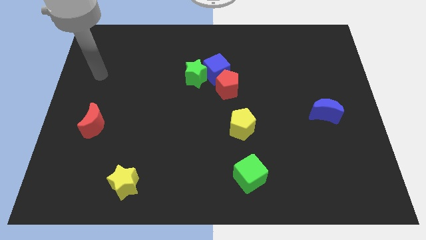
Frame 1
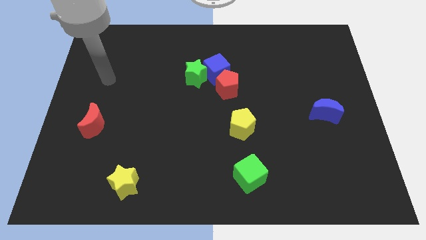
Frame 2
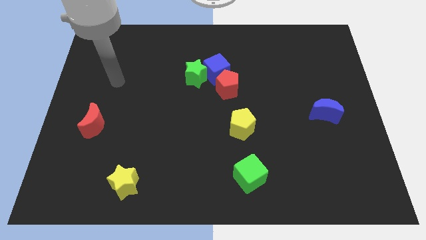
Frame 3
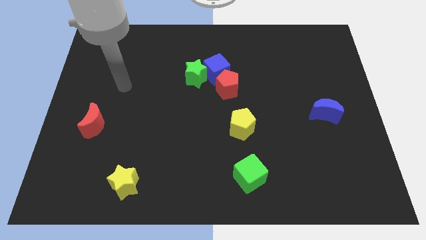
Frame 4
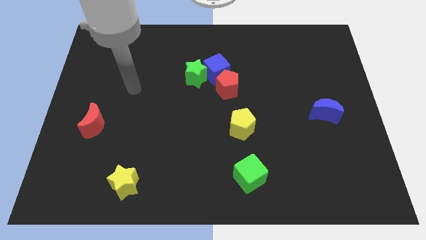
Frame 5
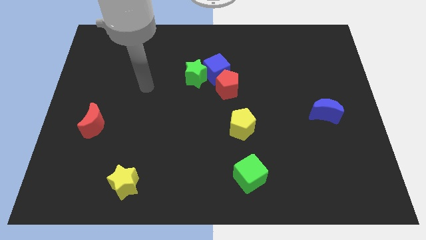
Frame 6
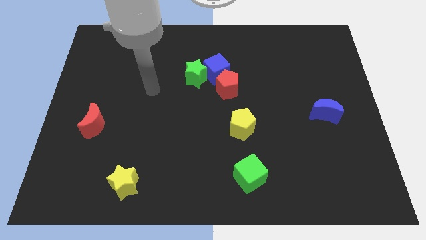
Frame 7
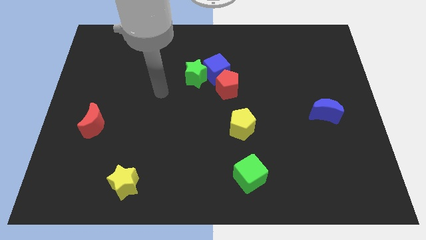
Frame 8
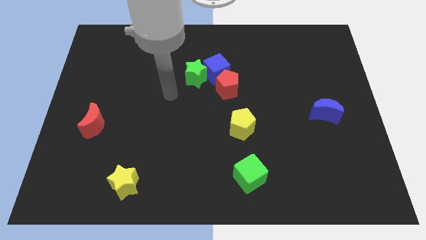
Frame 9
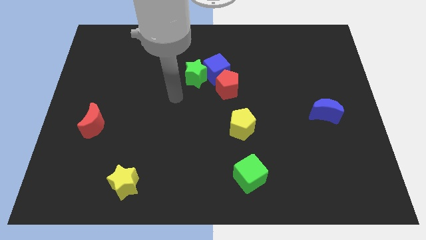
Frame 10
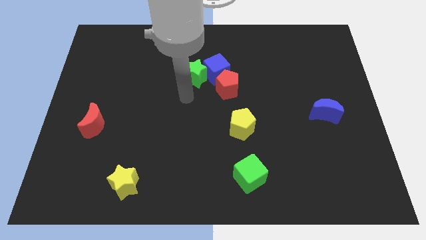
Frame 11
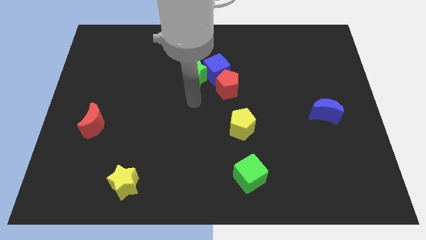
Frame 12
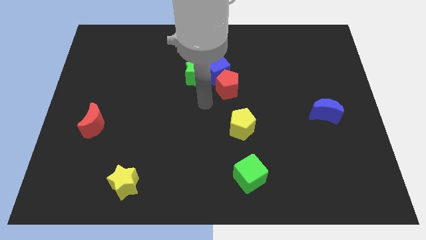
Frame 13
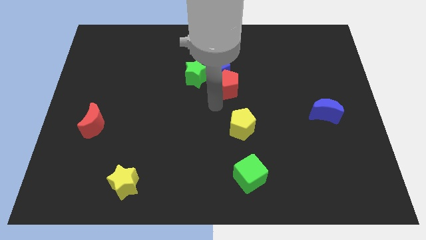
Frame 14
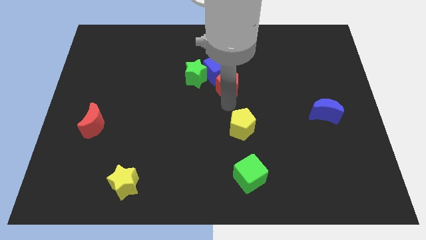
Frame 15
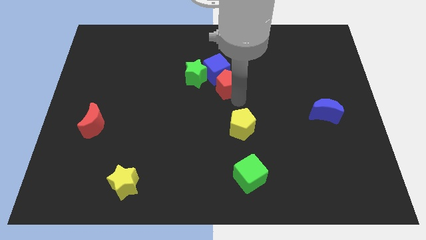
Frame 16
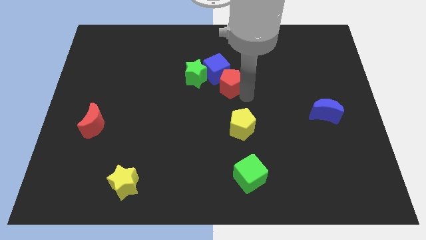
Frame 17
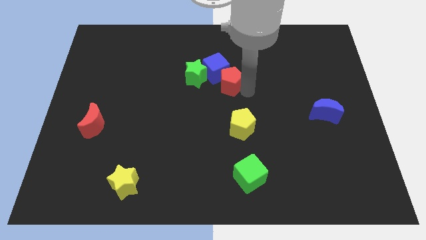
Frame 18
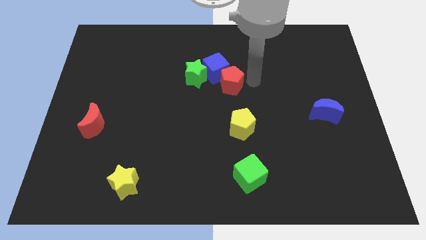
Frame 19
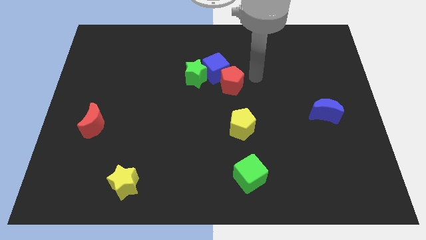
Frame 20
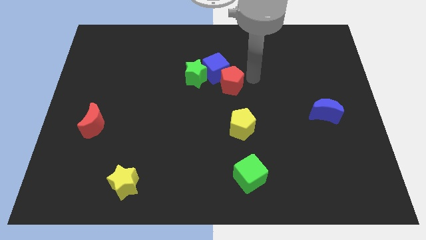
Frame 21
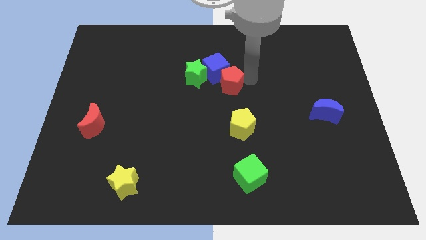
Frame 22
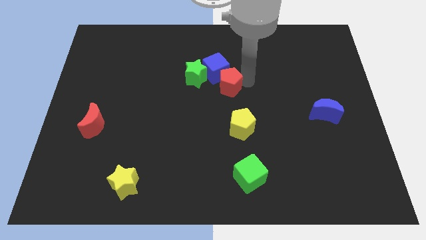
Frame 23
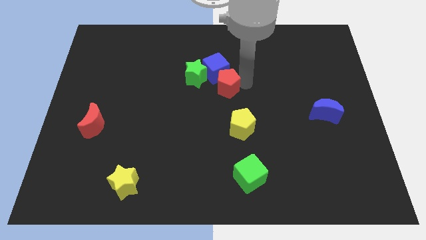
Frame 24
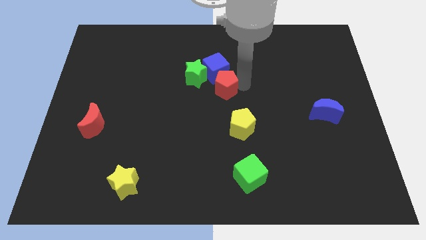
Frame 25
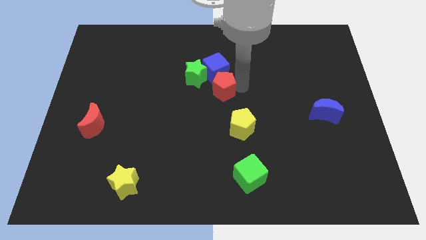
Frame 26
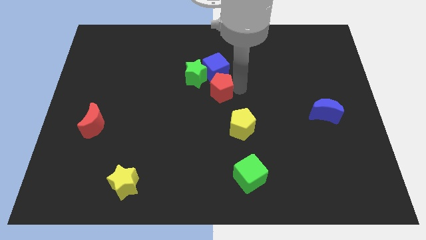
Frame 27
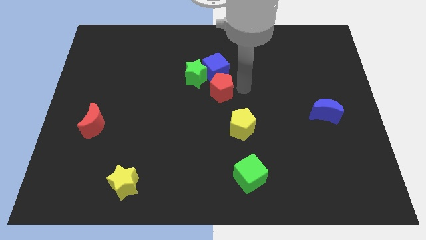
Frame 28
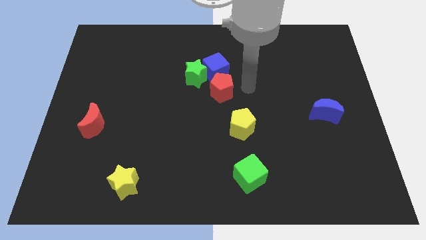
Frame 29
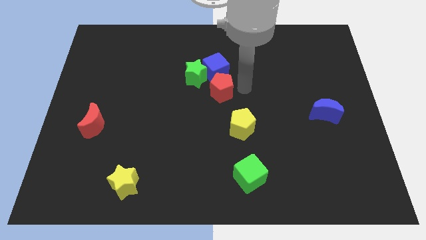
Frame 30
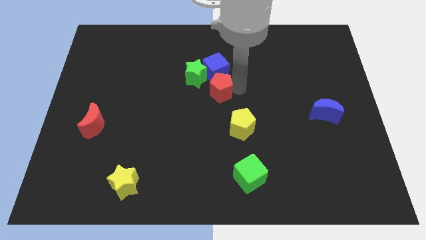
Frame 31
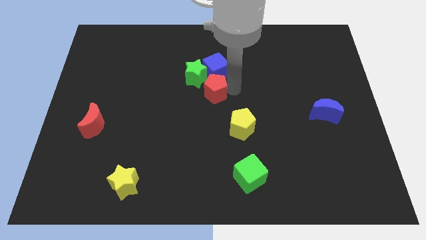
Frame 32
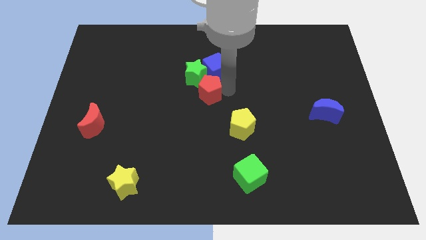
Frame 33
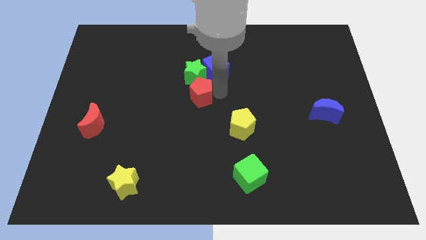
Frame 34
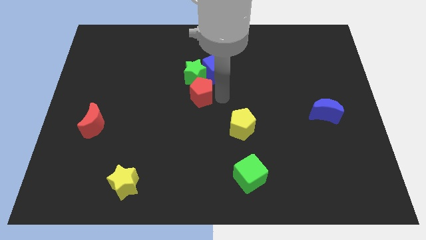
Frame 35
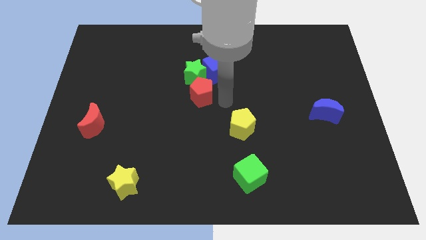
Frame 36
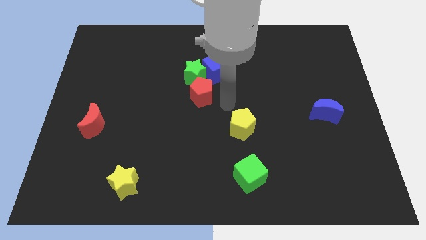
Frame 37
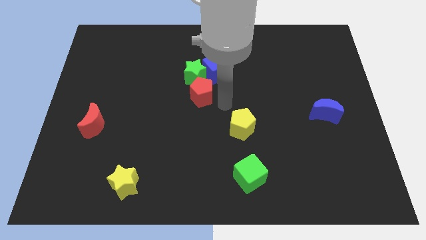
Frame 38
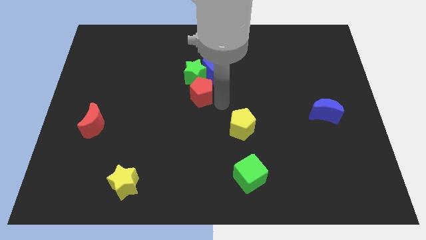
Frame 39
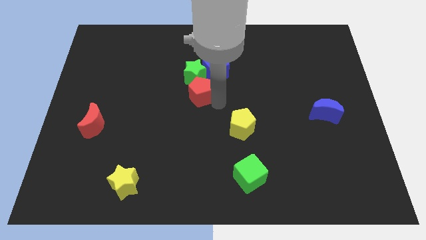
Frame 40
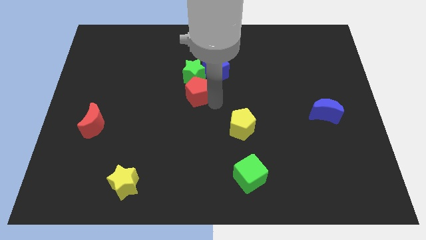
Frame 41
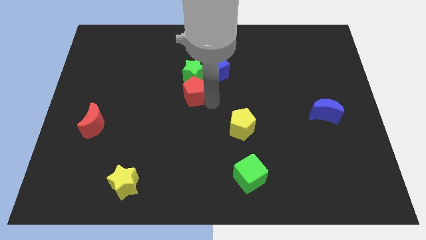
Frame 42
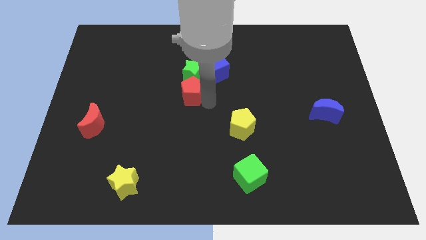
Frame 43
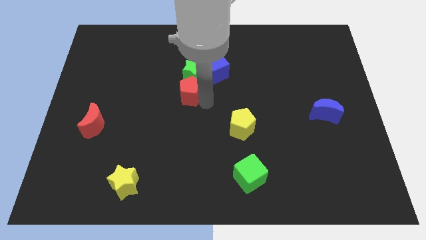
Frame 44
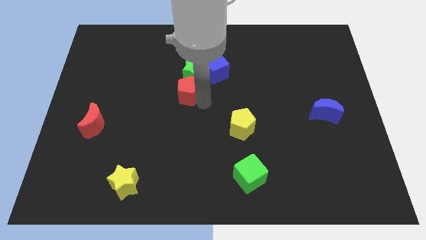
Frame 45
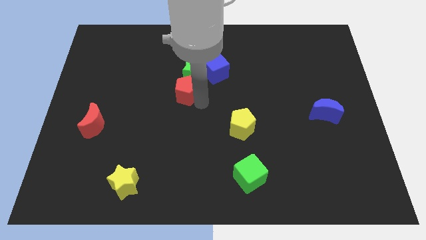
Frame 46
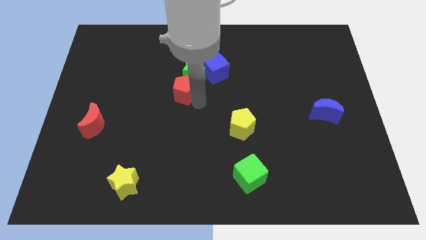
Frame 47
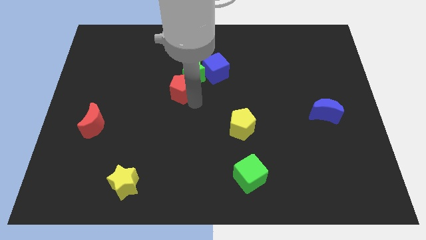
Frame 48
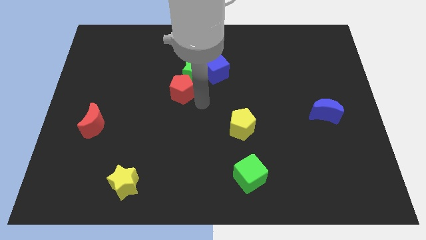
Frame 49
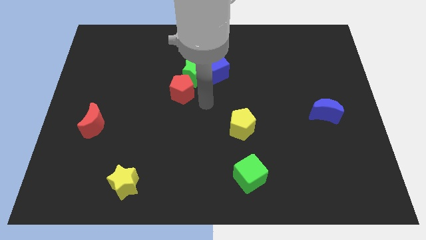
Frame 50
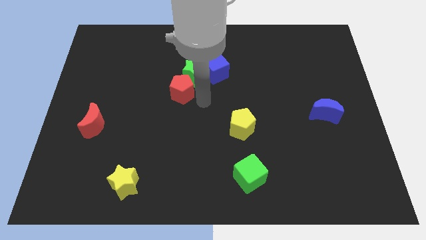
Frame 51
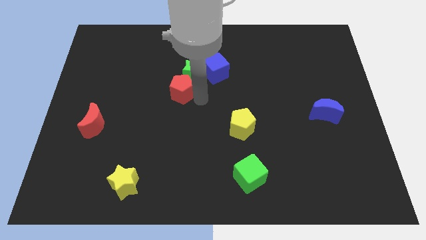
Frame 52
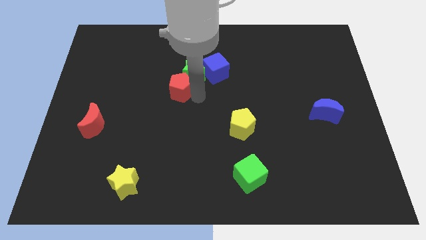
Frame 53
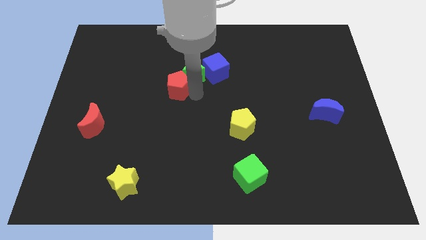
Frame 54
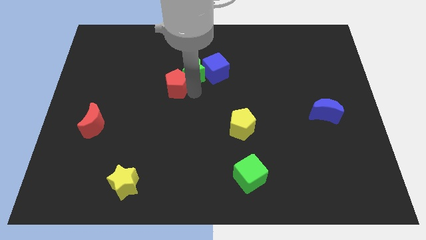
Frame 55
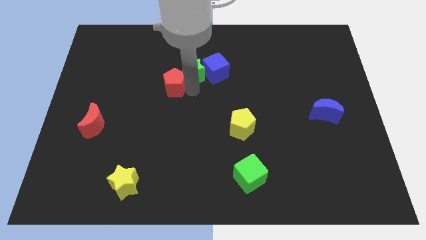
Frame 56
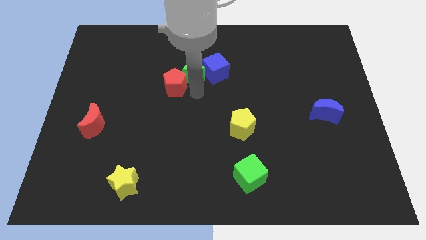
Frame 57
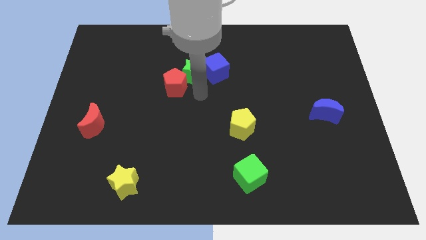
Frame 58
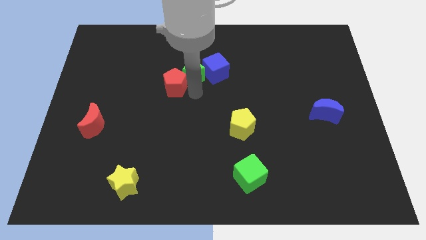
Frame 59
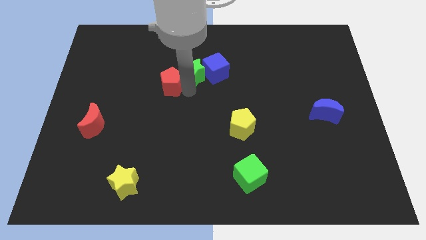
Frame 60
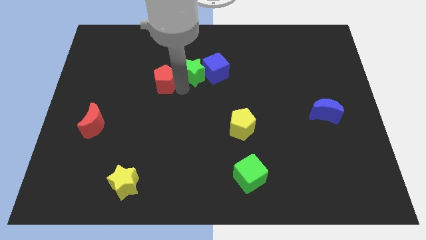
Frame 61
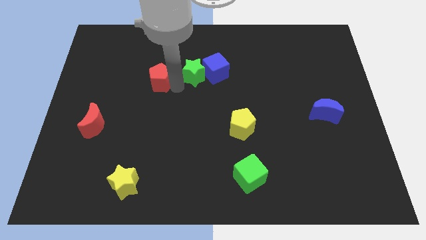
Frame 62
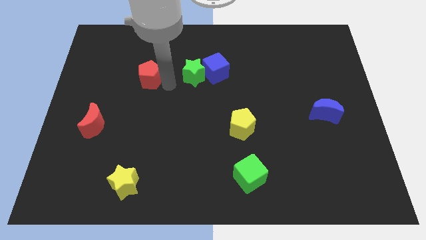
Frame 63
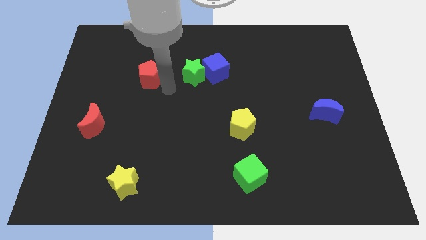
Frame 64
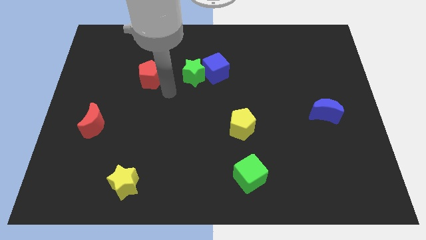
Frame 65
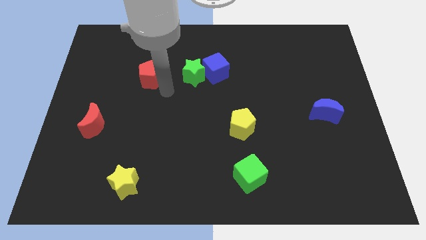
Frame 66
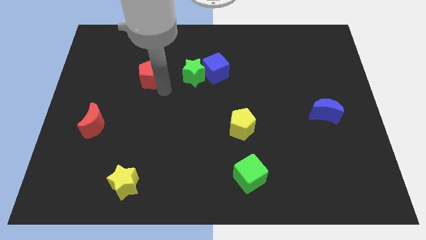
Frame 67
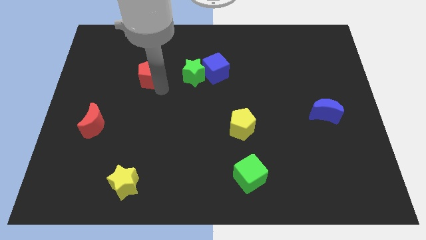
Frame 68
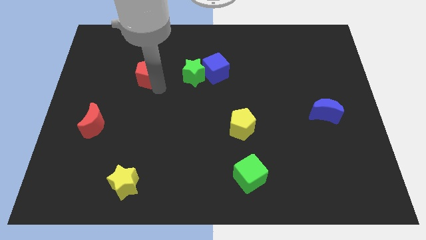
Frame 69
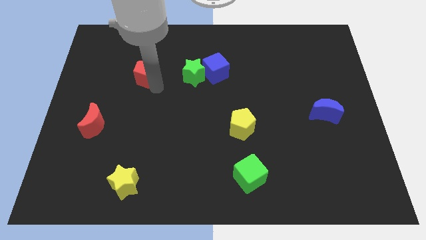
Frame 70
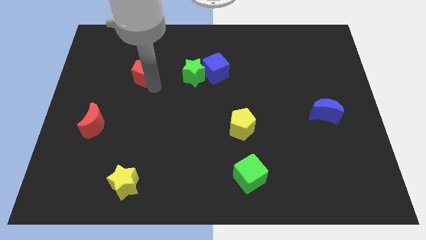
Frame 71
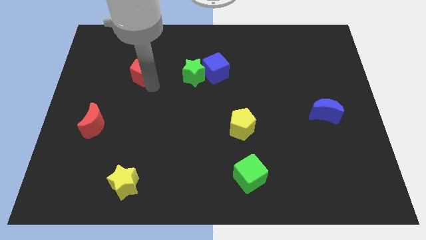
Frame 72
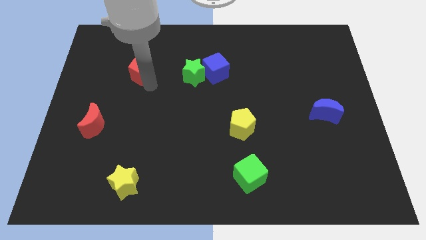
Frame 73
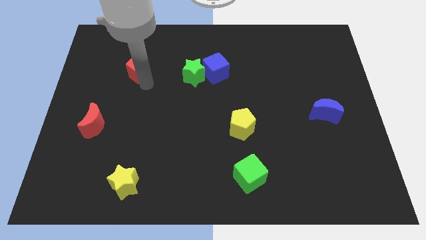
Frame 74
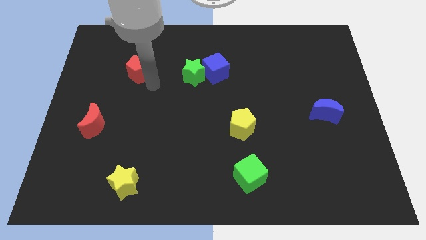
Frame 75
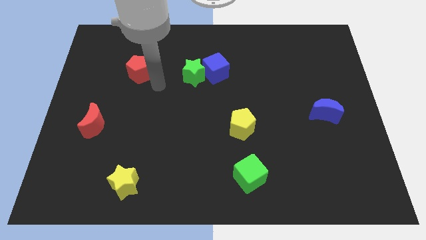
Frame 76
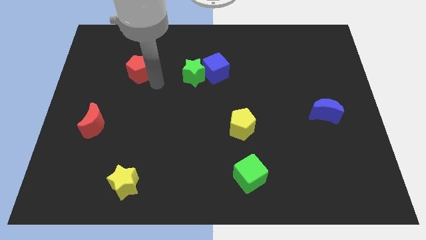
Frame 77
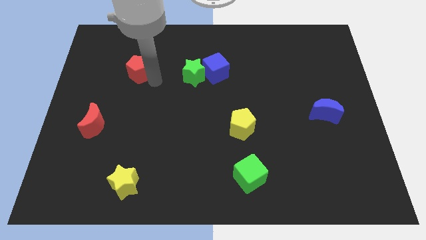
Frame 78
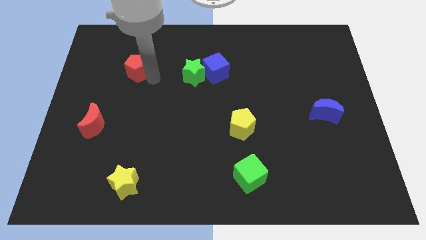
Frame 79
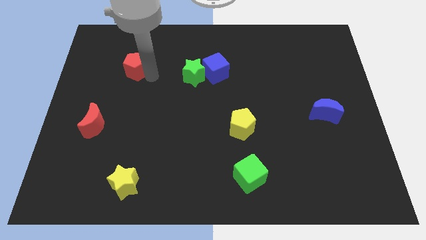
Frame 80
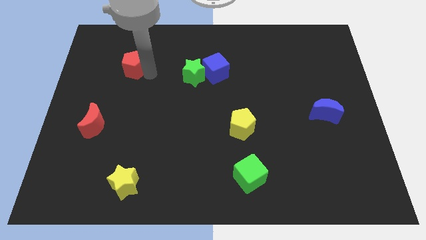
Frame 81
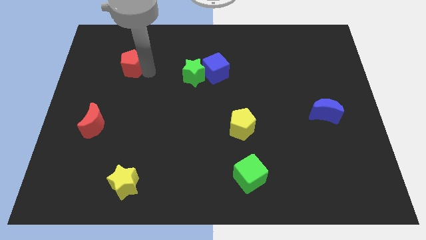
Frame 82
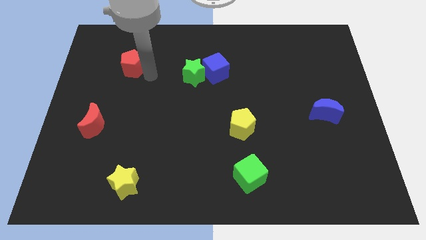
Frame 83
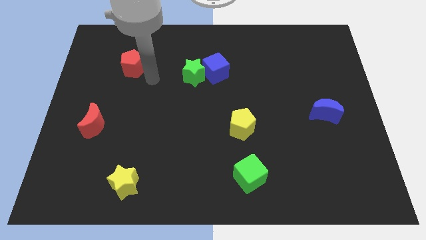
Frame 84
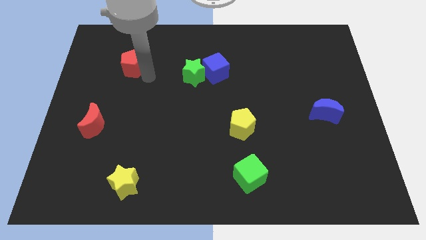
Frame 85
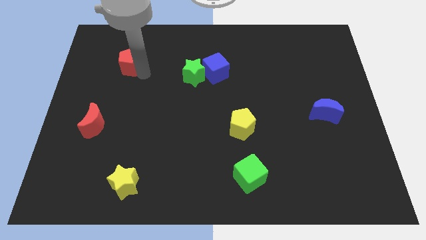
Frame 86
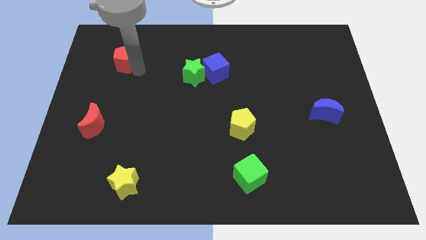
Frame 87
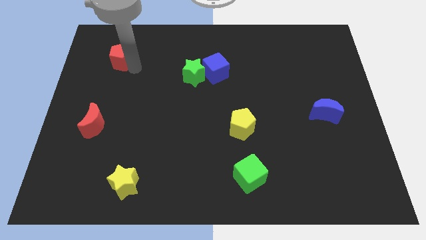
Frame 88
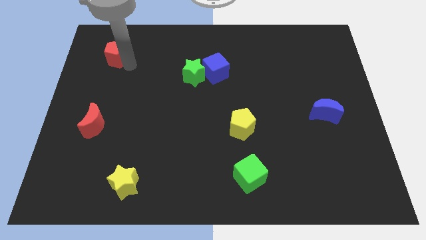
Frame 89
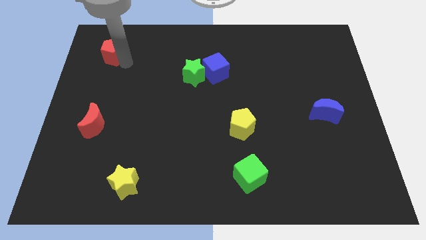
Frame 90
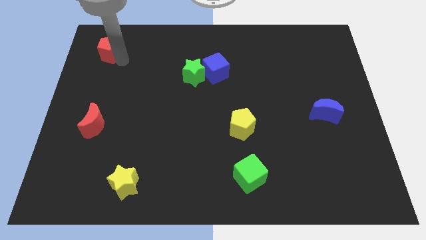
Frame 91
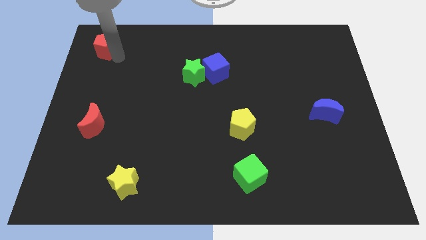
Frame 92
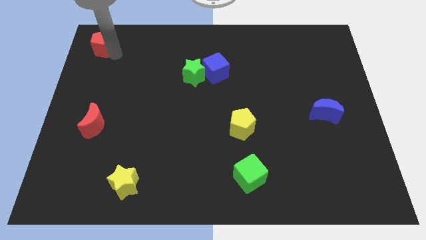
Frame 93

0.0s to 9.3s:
slide the red pentagon to the top left corner
